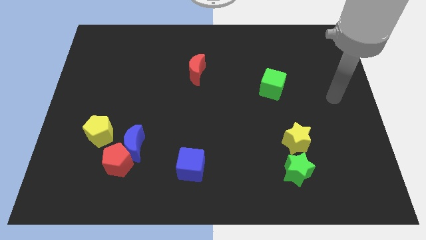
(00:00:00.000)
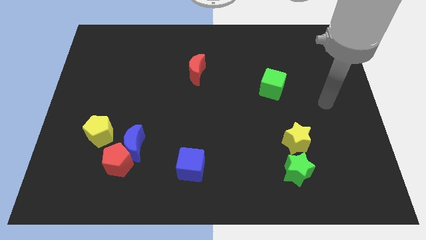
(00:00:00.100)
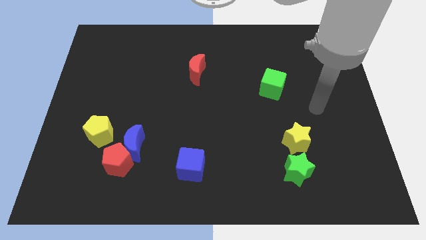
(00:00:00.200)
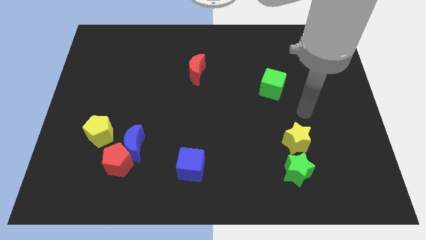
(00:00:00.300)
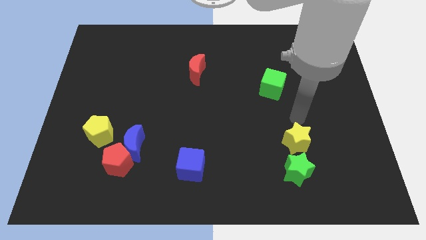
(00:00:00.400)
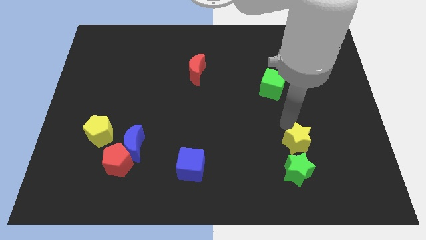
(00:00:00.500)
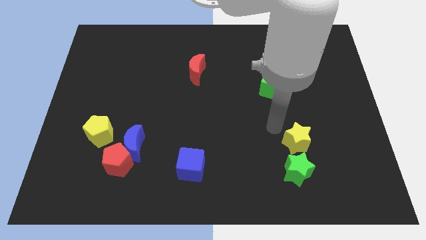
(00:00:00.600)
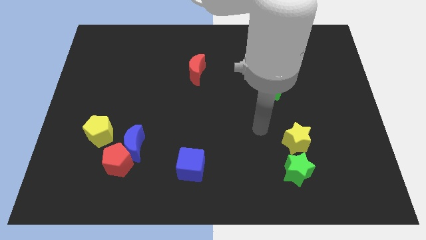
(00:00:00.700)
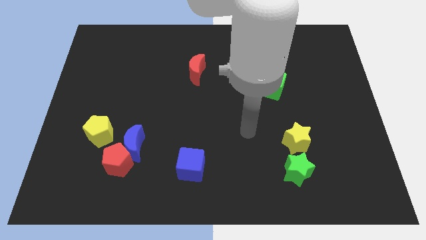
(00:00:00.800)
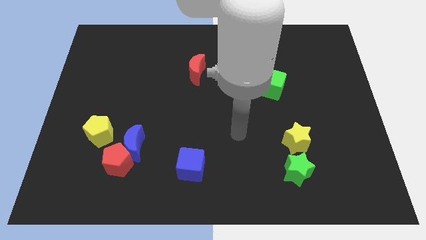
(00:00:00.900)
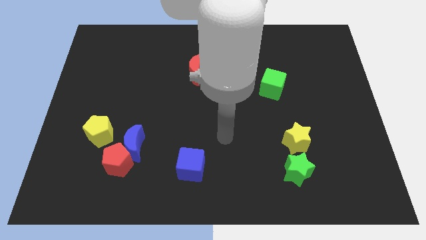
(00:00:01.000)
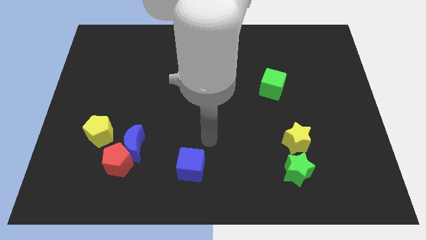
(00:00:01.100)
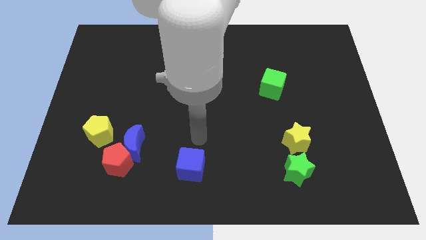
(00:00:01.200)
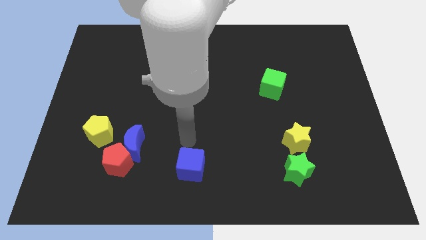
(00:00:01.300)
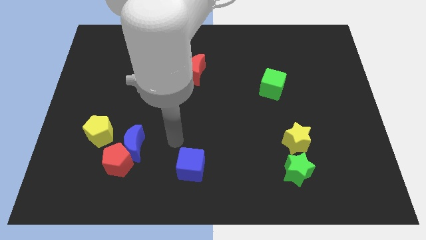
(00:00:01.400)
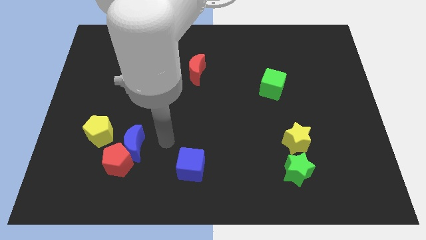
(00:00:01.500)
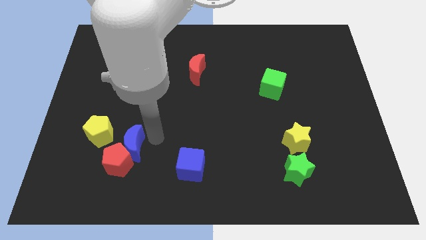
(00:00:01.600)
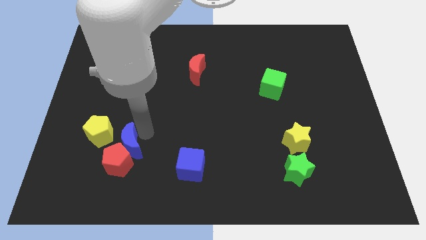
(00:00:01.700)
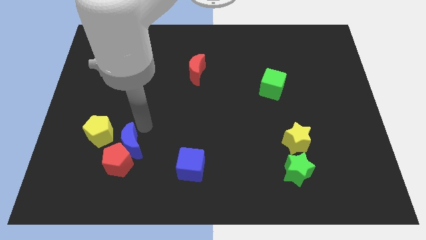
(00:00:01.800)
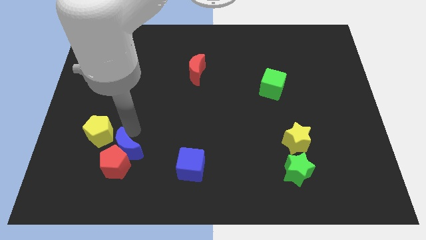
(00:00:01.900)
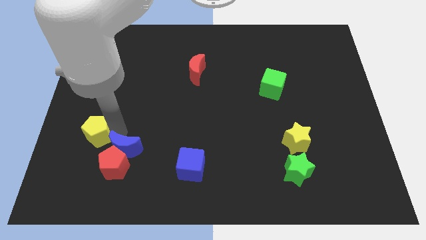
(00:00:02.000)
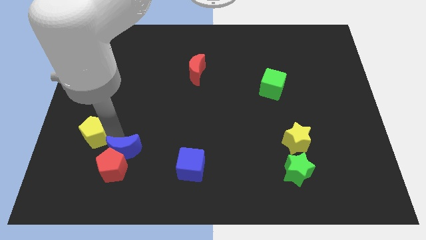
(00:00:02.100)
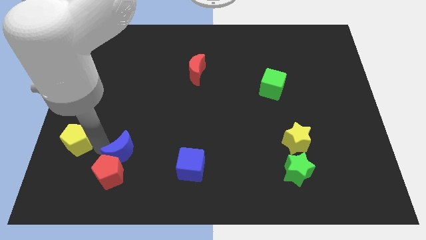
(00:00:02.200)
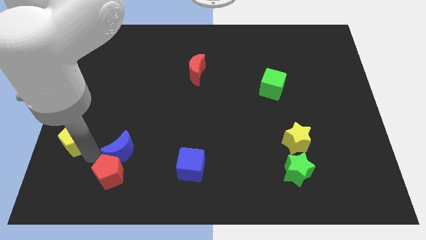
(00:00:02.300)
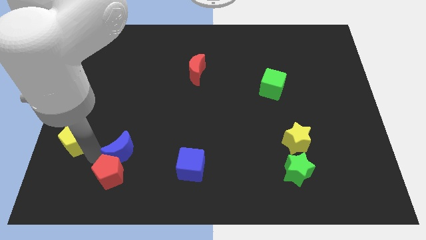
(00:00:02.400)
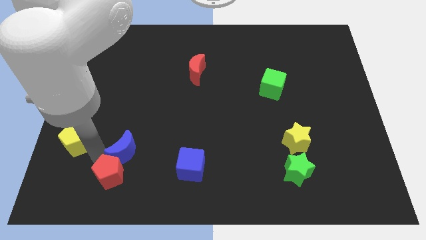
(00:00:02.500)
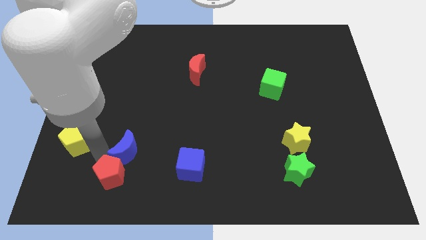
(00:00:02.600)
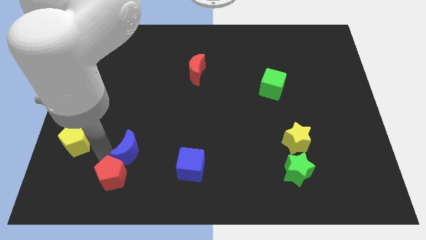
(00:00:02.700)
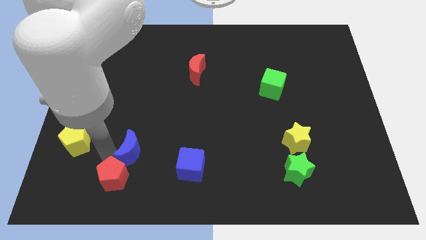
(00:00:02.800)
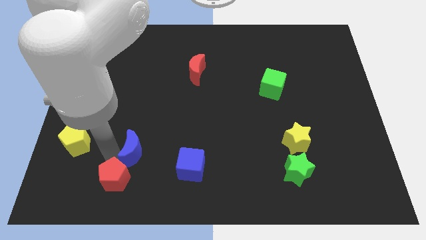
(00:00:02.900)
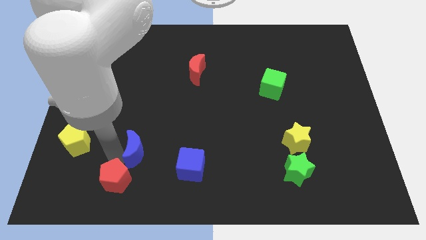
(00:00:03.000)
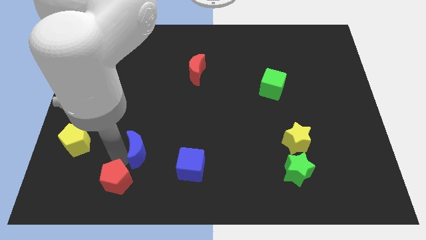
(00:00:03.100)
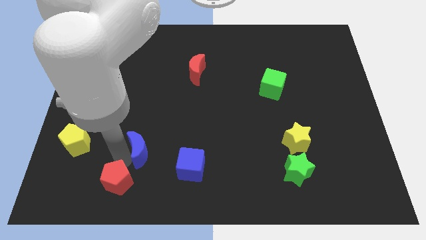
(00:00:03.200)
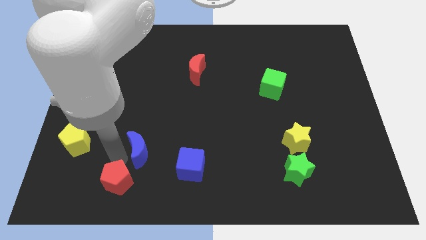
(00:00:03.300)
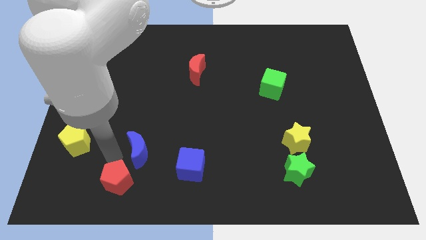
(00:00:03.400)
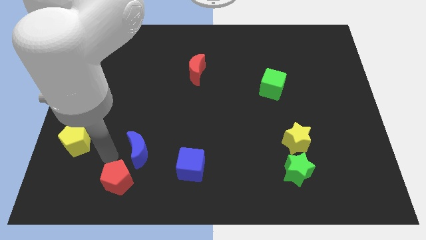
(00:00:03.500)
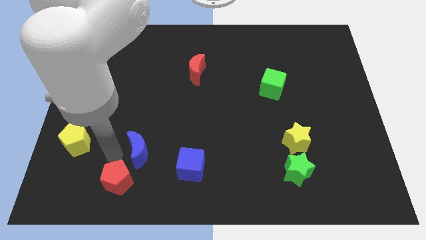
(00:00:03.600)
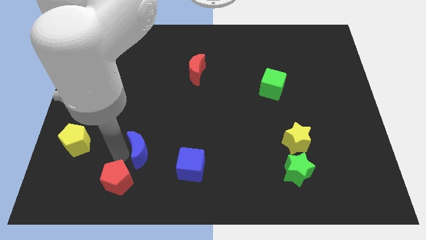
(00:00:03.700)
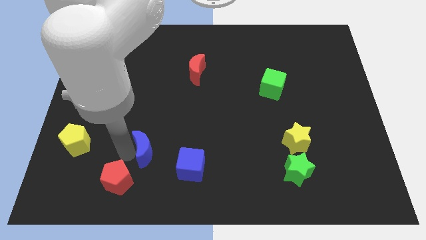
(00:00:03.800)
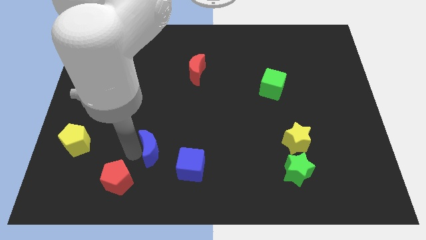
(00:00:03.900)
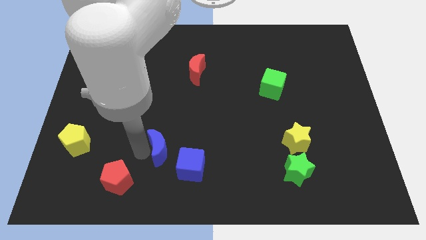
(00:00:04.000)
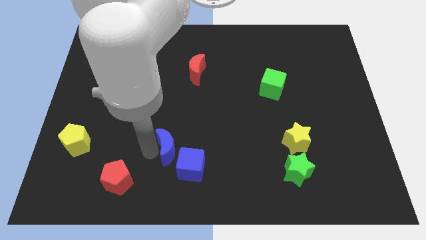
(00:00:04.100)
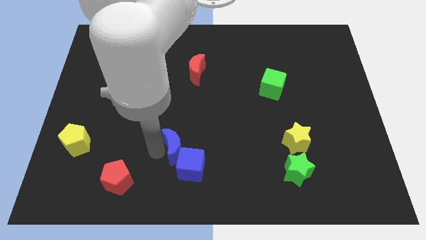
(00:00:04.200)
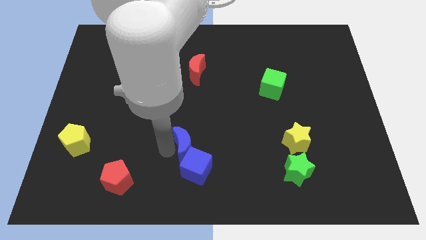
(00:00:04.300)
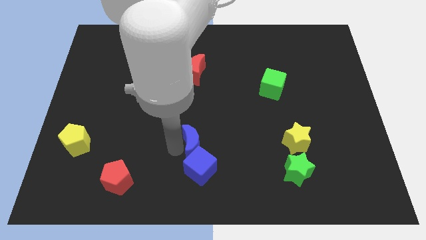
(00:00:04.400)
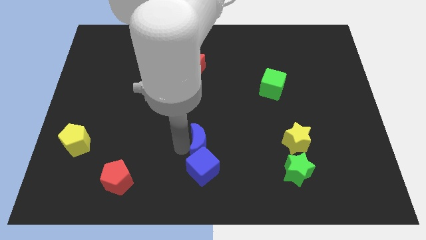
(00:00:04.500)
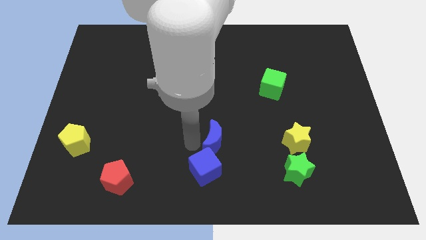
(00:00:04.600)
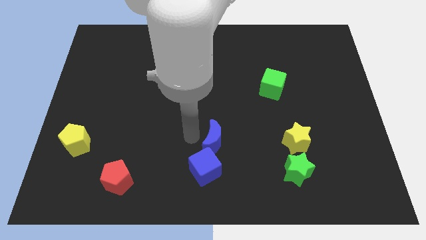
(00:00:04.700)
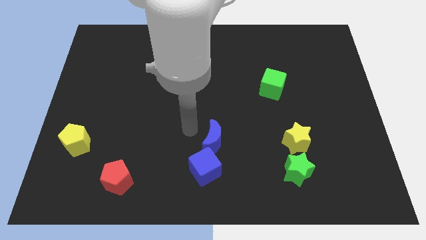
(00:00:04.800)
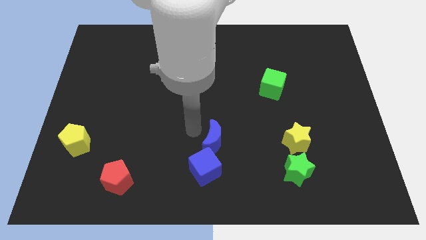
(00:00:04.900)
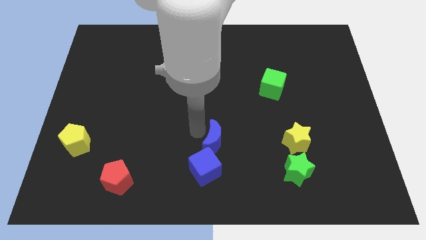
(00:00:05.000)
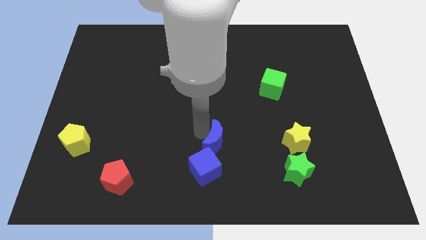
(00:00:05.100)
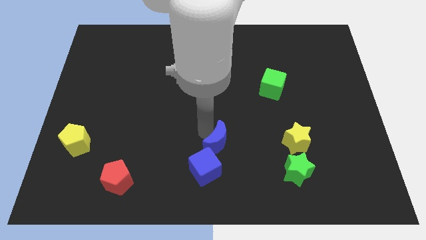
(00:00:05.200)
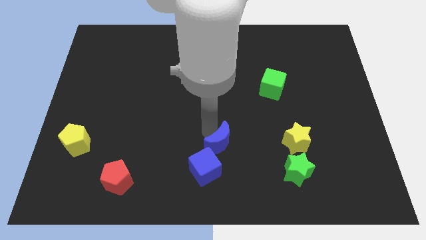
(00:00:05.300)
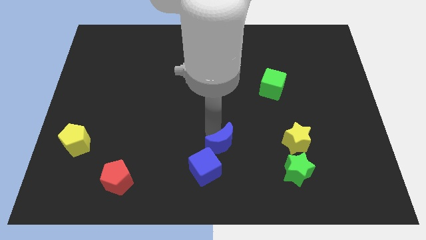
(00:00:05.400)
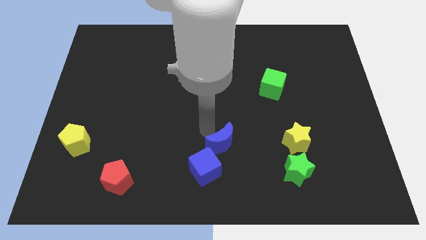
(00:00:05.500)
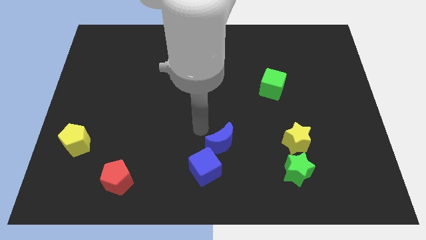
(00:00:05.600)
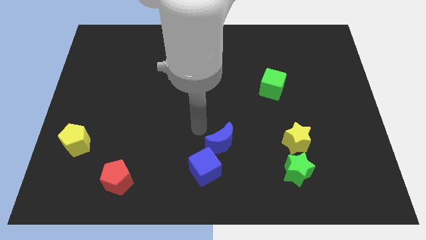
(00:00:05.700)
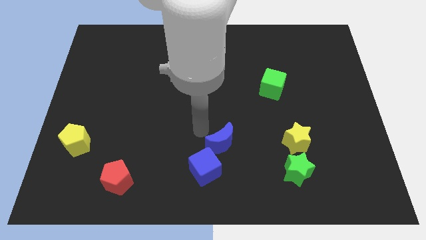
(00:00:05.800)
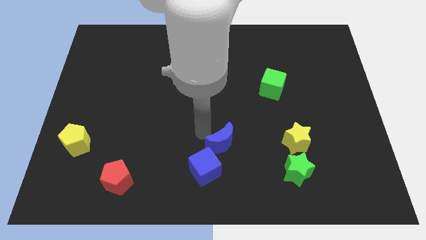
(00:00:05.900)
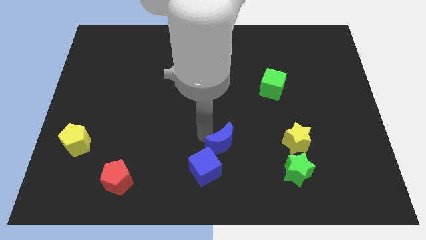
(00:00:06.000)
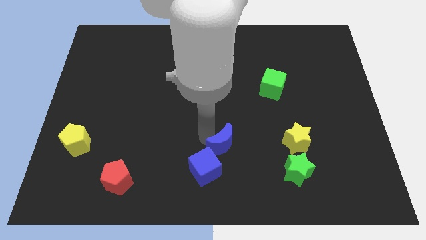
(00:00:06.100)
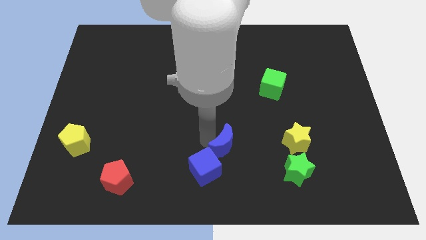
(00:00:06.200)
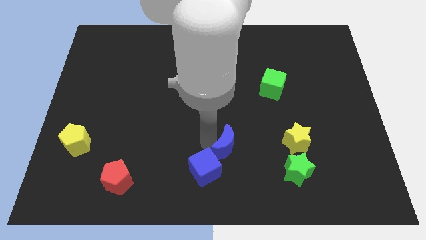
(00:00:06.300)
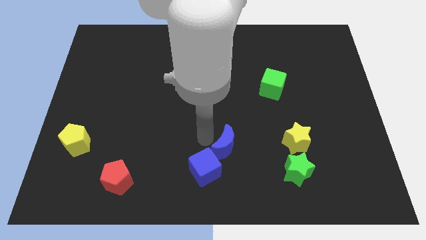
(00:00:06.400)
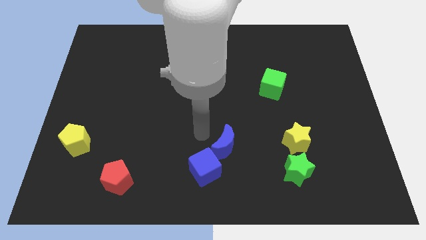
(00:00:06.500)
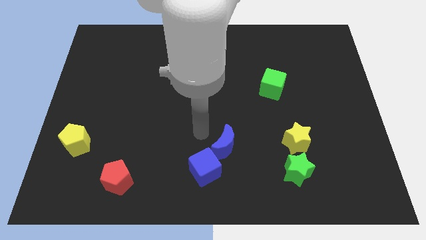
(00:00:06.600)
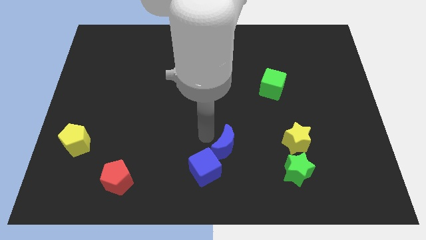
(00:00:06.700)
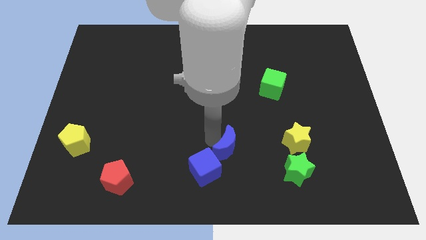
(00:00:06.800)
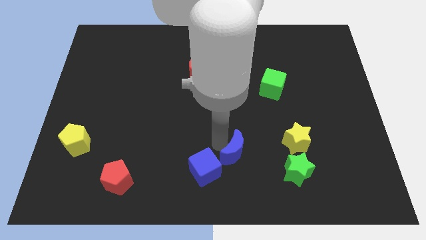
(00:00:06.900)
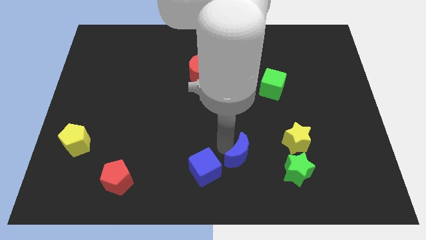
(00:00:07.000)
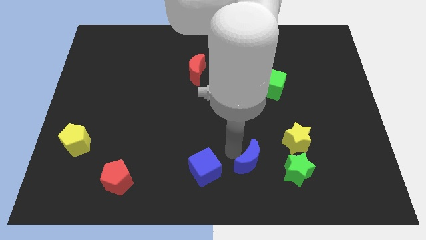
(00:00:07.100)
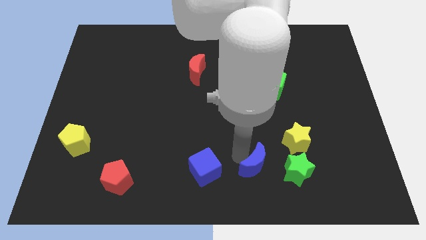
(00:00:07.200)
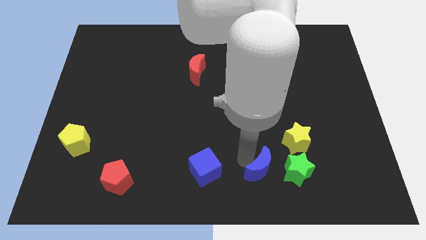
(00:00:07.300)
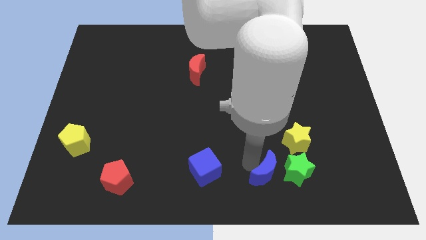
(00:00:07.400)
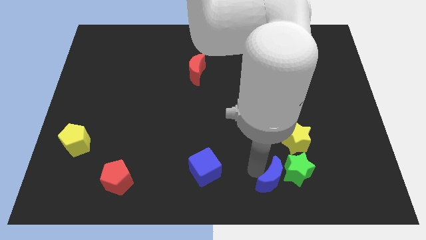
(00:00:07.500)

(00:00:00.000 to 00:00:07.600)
move the blue moon towards the green star
